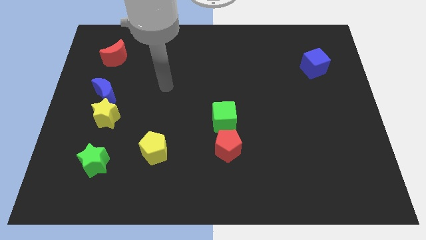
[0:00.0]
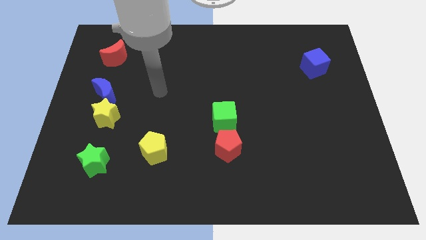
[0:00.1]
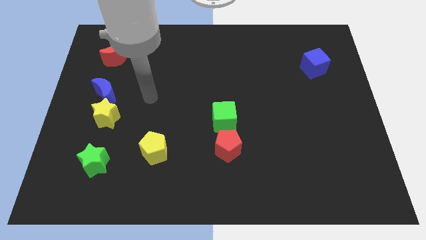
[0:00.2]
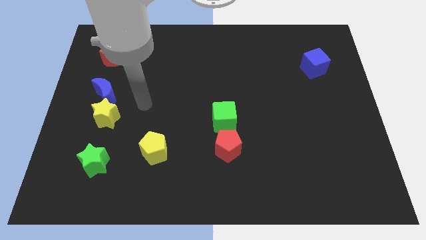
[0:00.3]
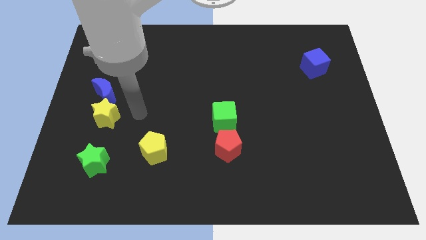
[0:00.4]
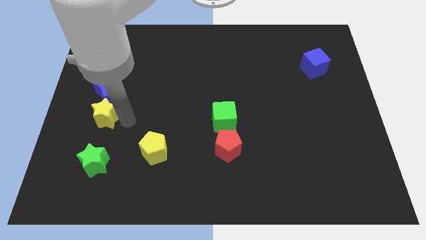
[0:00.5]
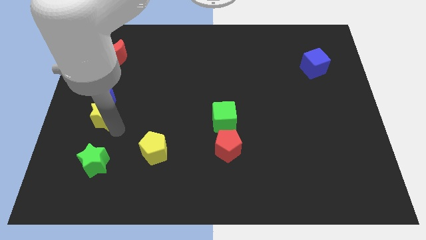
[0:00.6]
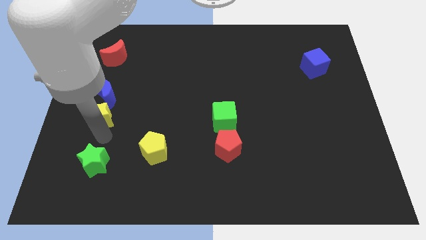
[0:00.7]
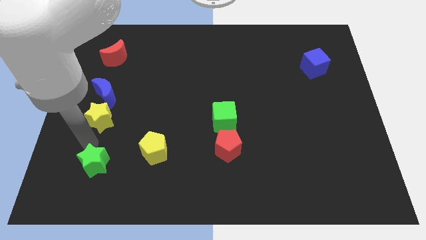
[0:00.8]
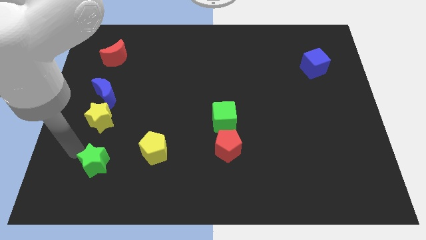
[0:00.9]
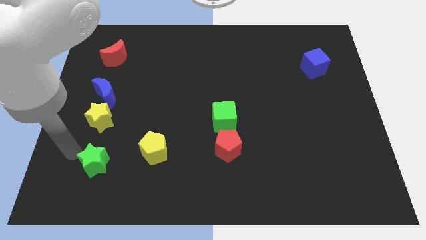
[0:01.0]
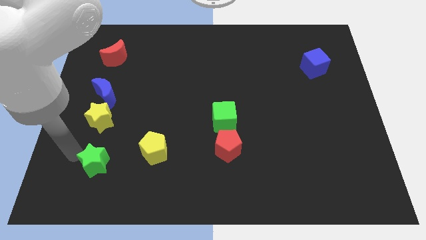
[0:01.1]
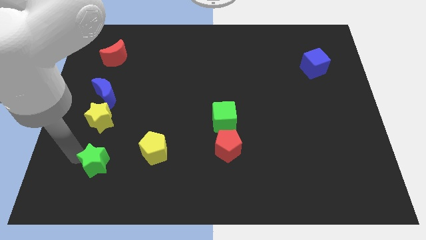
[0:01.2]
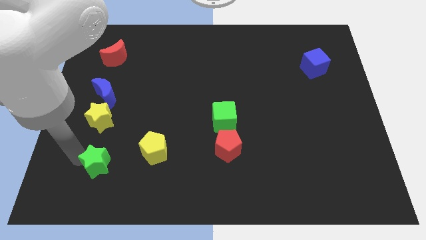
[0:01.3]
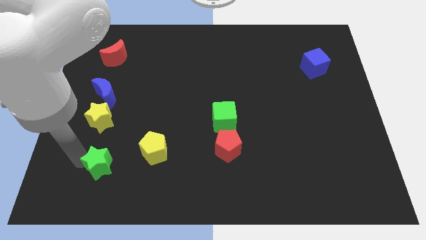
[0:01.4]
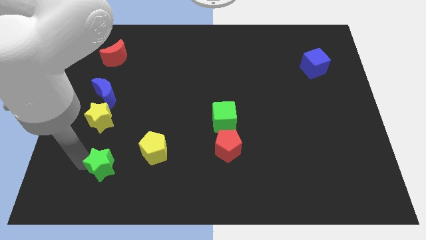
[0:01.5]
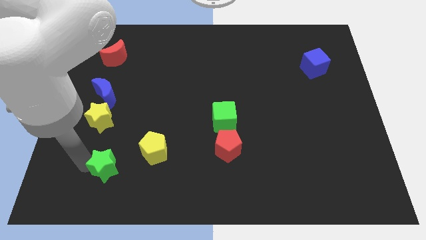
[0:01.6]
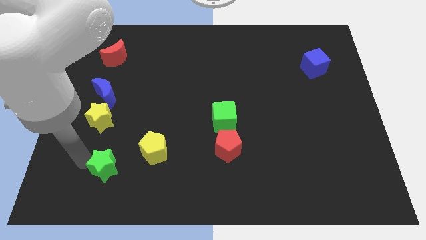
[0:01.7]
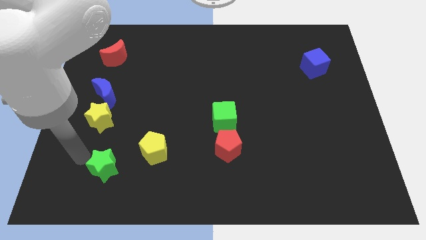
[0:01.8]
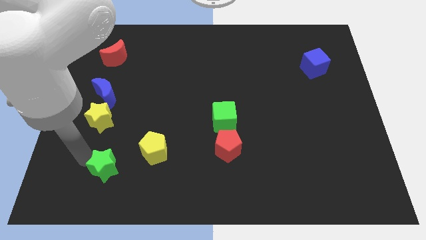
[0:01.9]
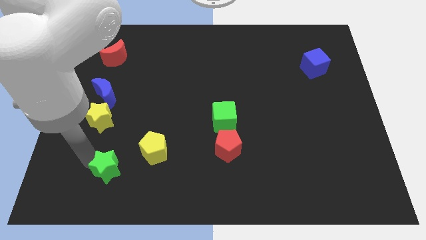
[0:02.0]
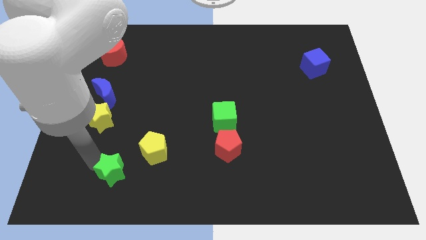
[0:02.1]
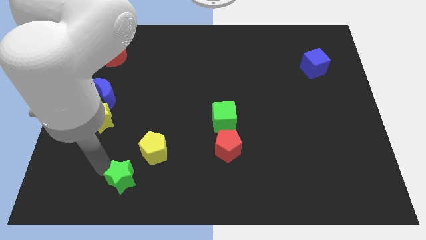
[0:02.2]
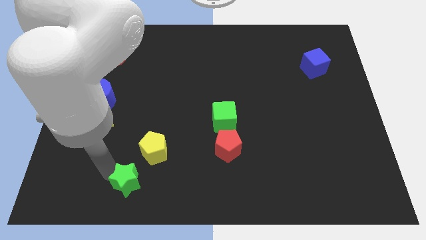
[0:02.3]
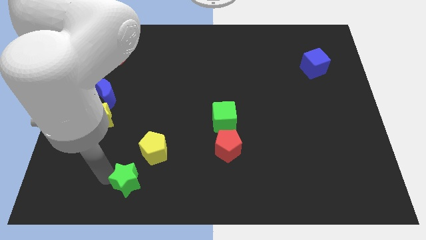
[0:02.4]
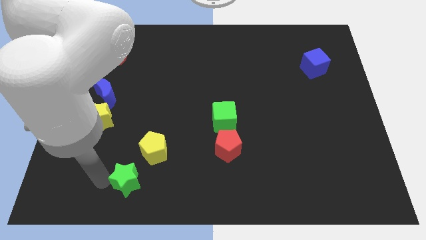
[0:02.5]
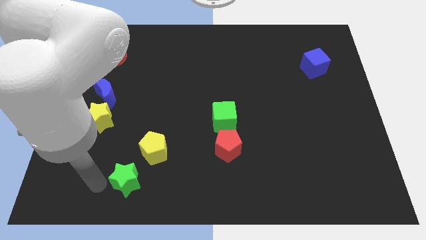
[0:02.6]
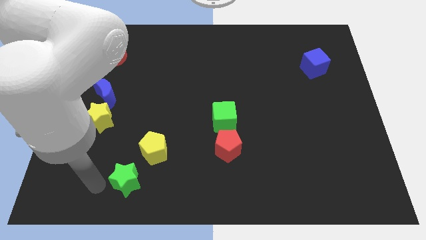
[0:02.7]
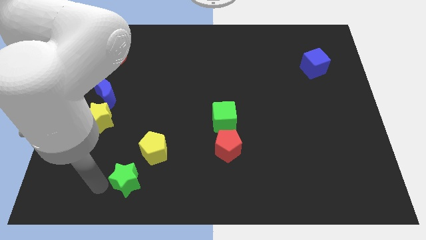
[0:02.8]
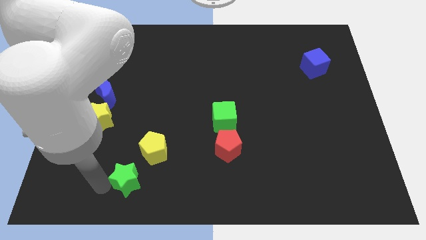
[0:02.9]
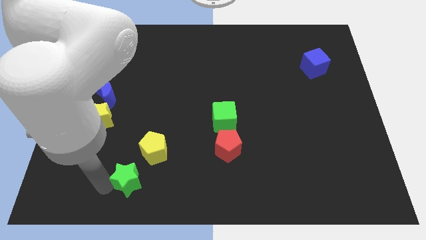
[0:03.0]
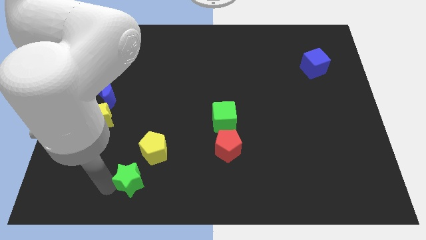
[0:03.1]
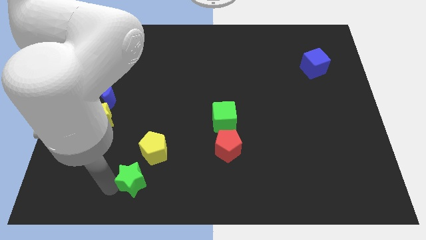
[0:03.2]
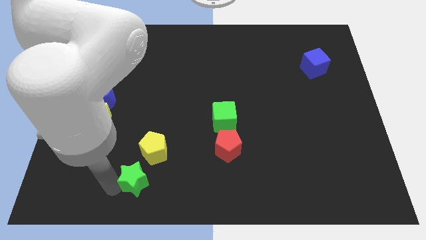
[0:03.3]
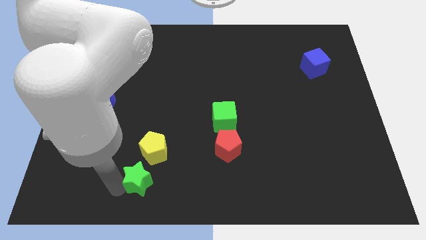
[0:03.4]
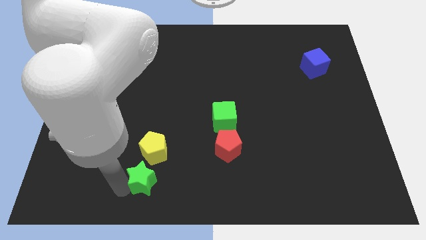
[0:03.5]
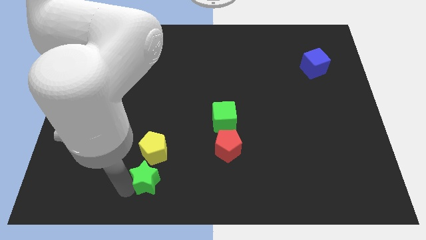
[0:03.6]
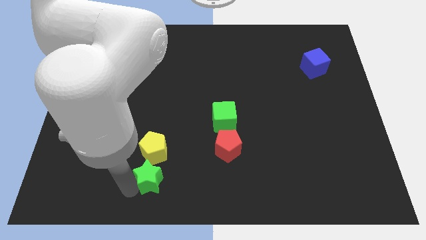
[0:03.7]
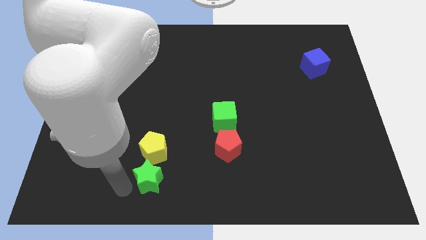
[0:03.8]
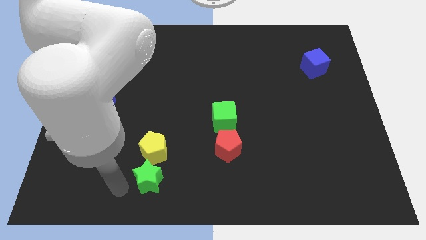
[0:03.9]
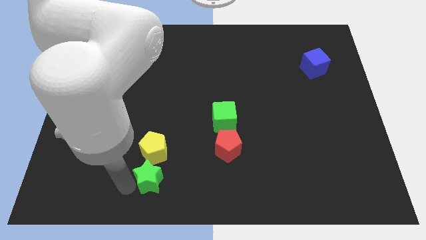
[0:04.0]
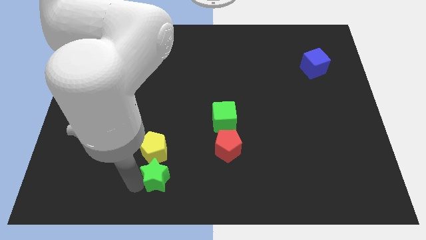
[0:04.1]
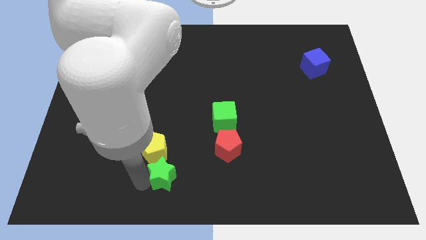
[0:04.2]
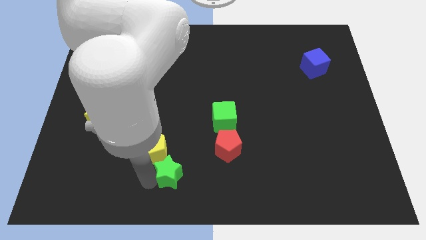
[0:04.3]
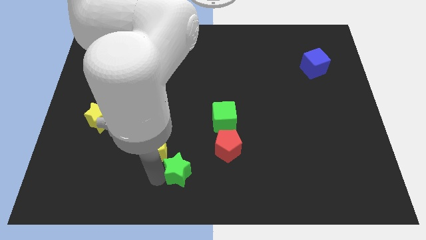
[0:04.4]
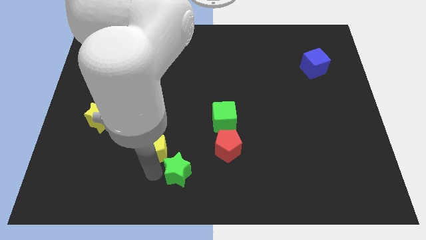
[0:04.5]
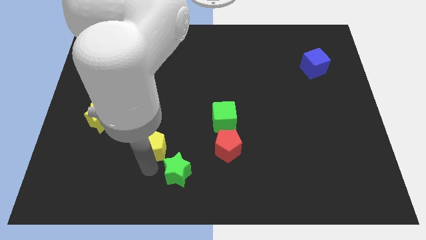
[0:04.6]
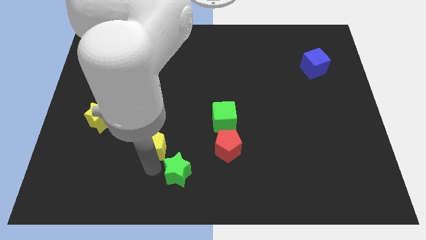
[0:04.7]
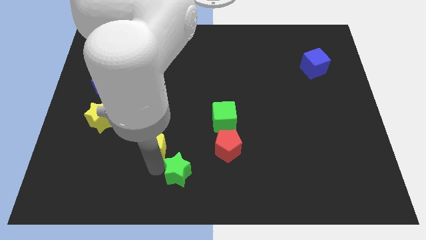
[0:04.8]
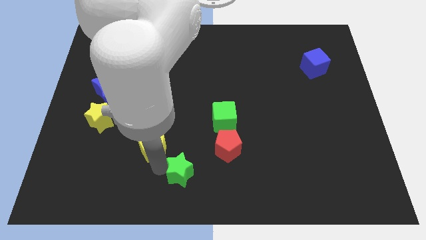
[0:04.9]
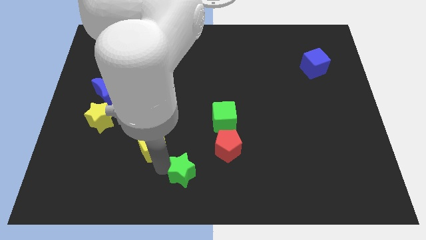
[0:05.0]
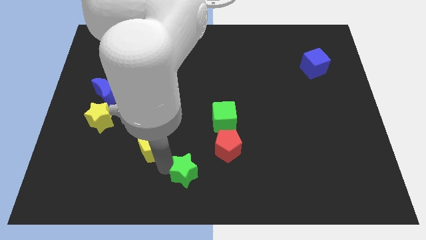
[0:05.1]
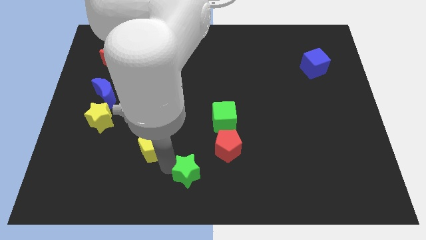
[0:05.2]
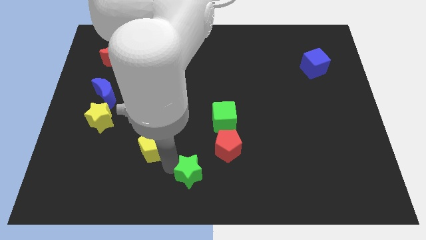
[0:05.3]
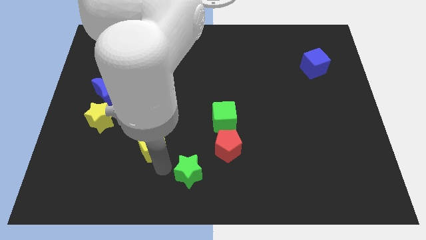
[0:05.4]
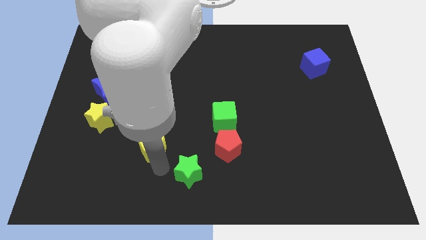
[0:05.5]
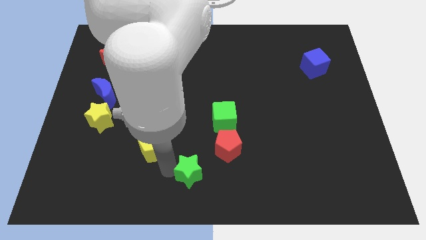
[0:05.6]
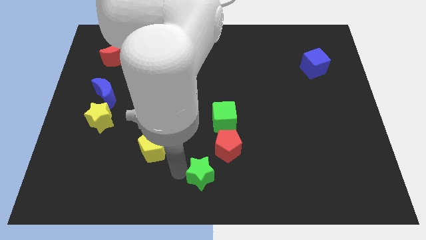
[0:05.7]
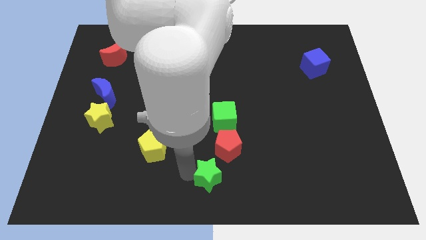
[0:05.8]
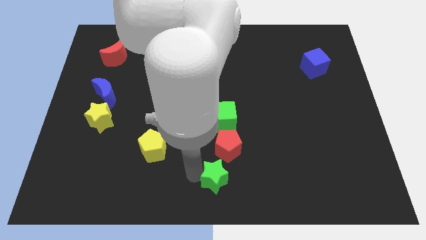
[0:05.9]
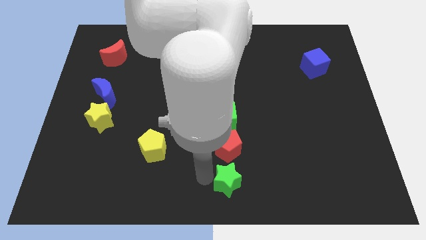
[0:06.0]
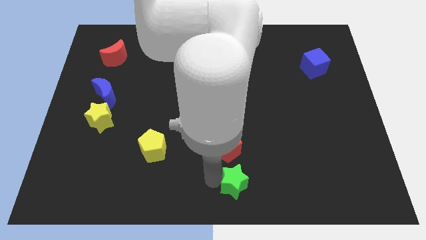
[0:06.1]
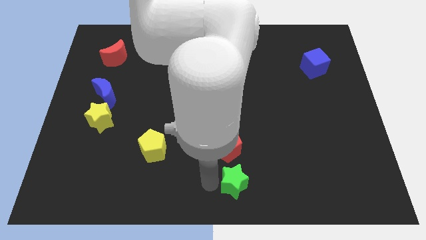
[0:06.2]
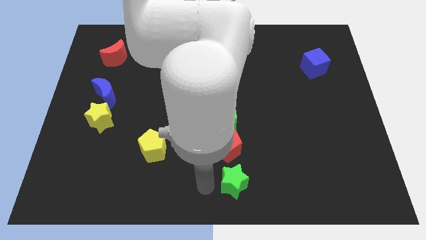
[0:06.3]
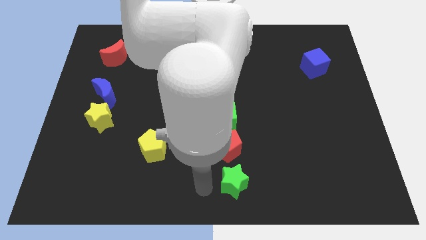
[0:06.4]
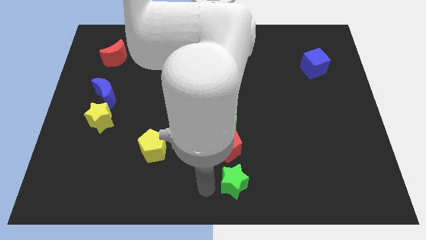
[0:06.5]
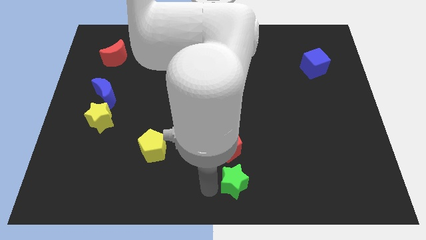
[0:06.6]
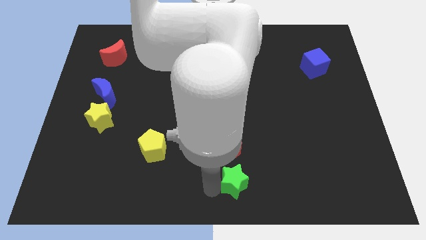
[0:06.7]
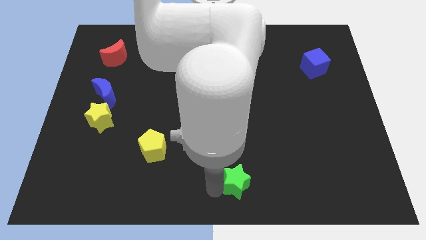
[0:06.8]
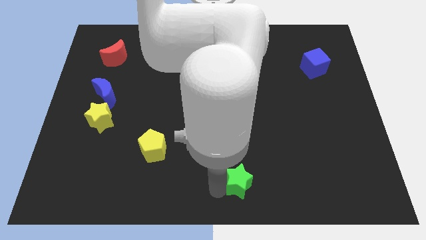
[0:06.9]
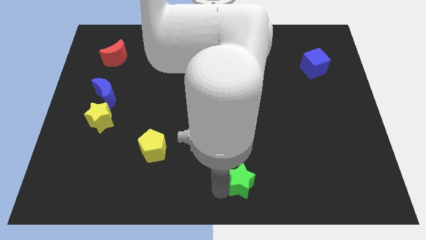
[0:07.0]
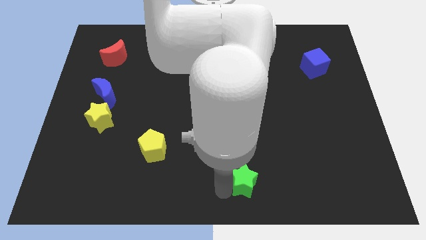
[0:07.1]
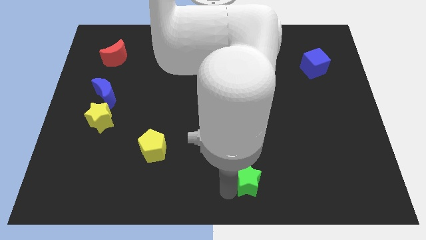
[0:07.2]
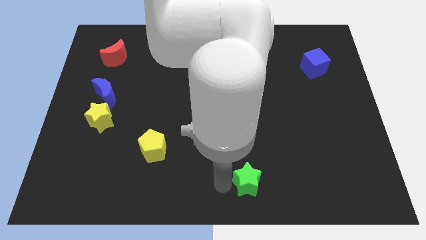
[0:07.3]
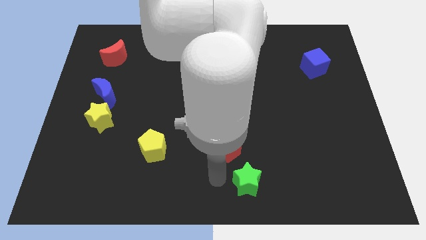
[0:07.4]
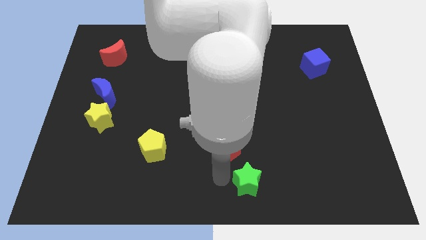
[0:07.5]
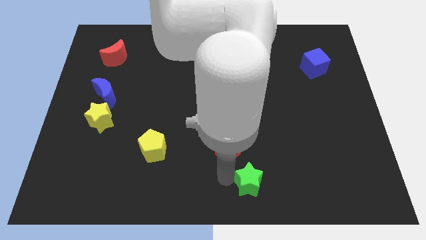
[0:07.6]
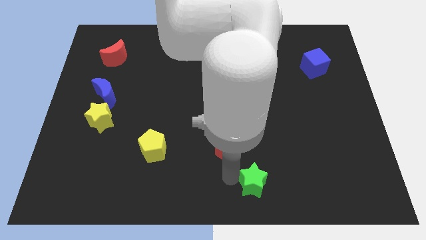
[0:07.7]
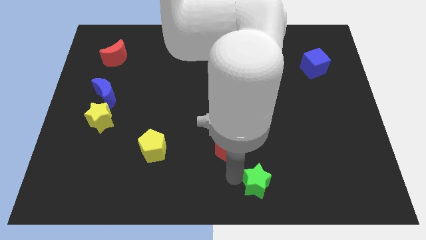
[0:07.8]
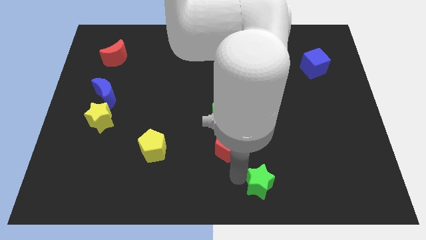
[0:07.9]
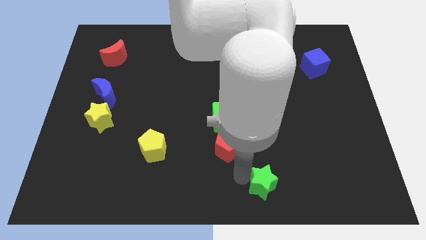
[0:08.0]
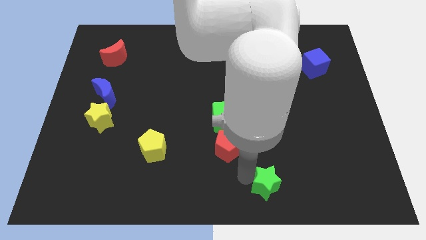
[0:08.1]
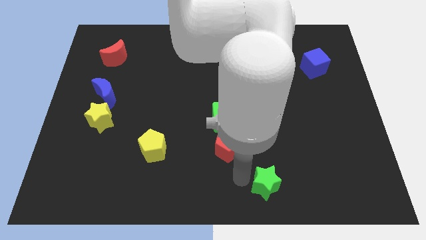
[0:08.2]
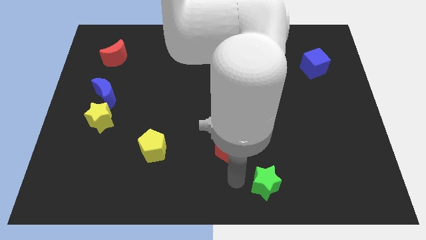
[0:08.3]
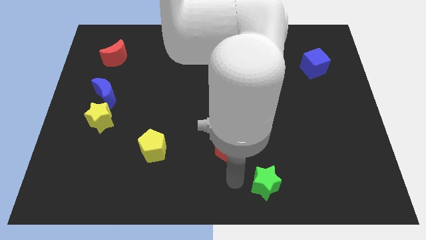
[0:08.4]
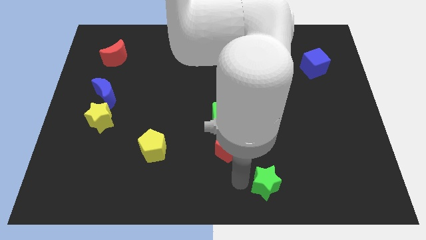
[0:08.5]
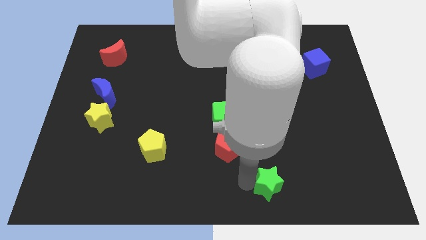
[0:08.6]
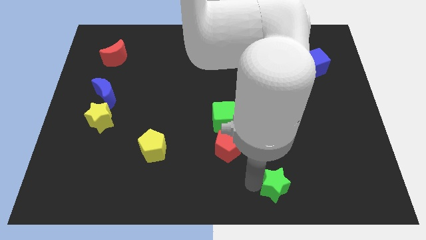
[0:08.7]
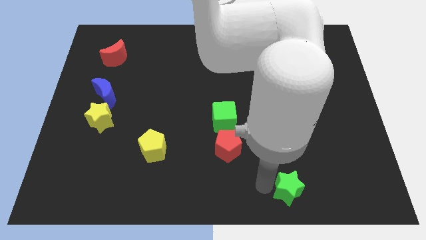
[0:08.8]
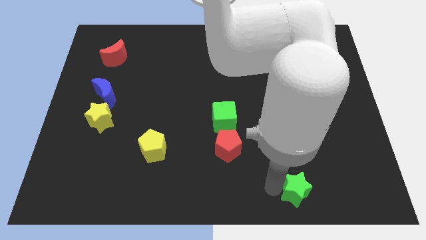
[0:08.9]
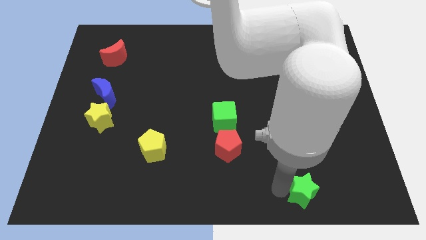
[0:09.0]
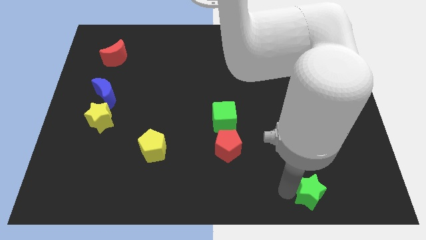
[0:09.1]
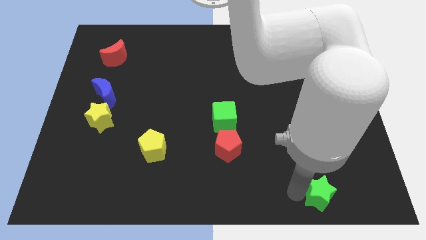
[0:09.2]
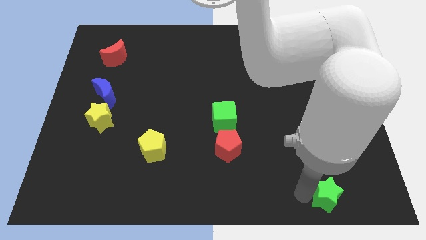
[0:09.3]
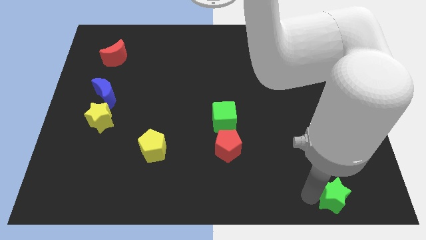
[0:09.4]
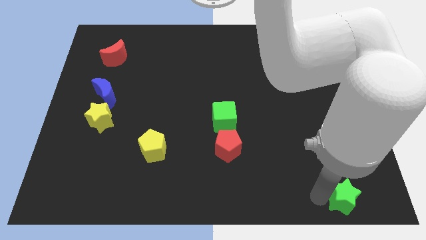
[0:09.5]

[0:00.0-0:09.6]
move the green star to the bottom right
